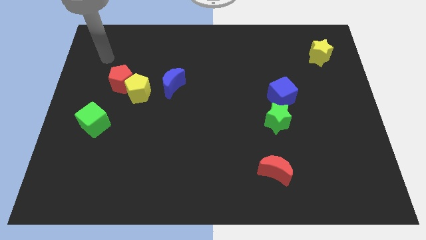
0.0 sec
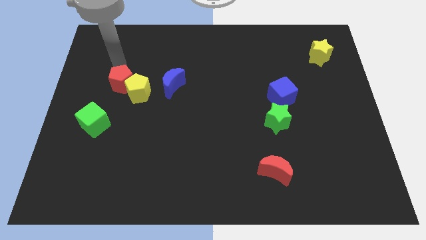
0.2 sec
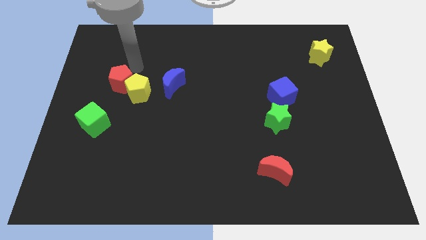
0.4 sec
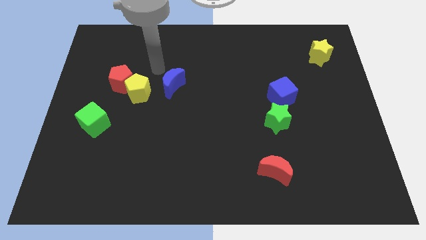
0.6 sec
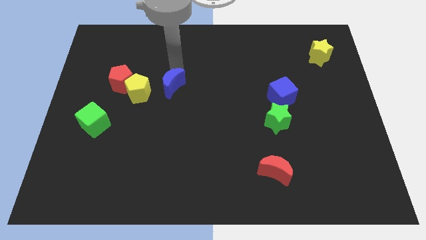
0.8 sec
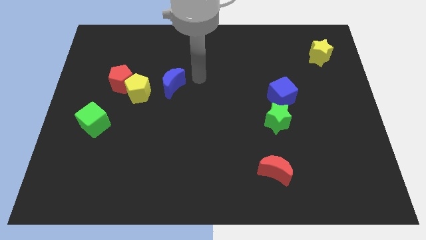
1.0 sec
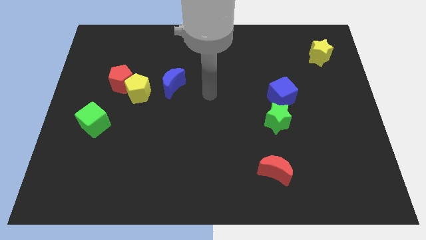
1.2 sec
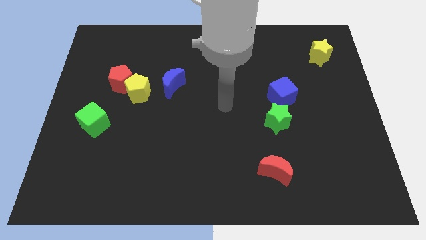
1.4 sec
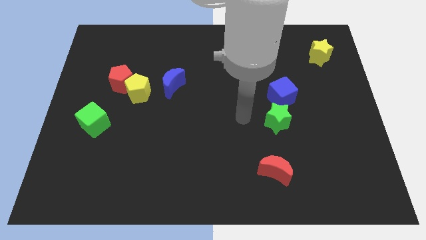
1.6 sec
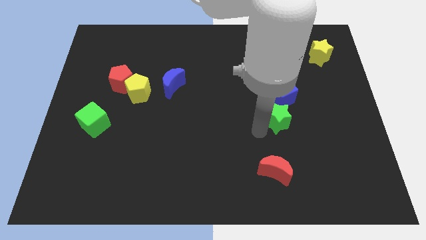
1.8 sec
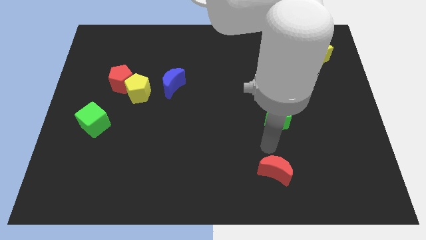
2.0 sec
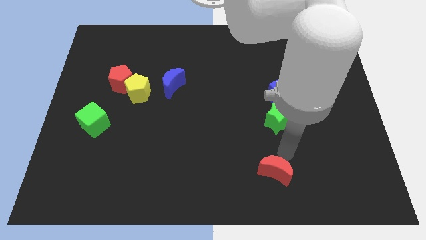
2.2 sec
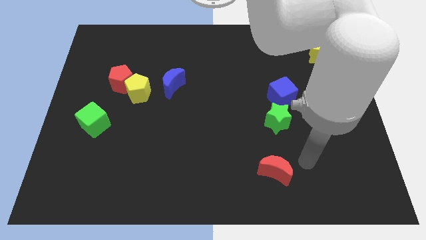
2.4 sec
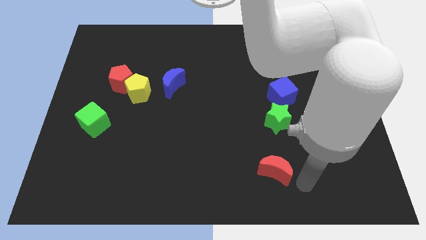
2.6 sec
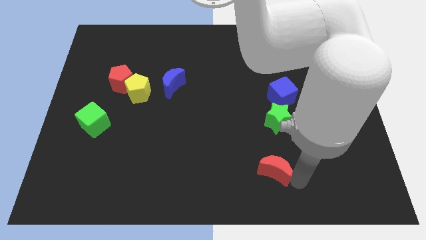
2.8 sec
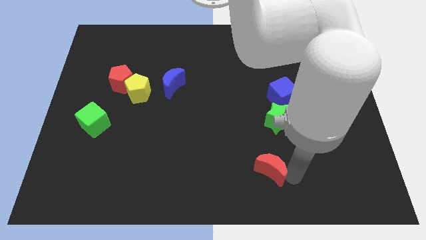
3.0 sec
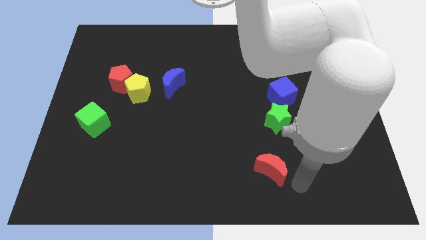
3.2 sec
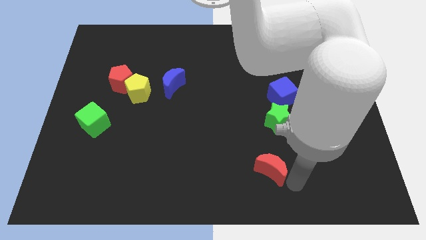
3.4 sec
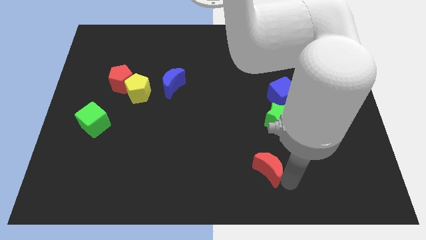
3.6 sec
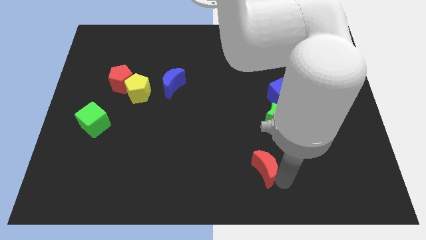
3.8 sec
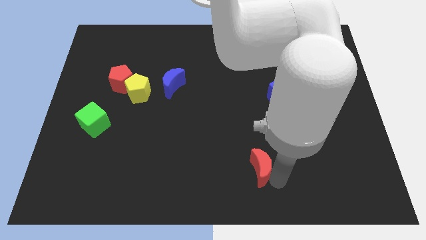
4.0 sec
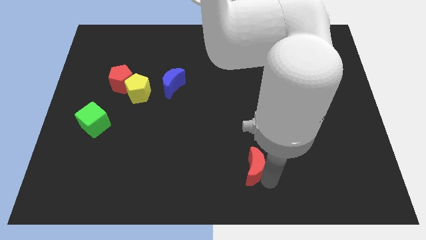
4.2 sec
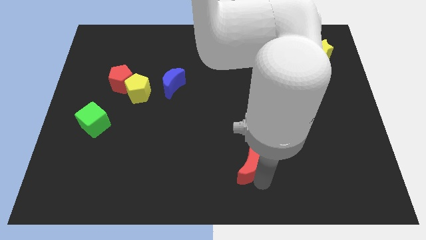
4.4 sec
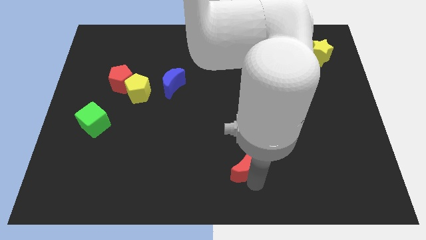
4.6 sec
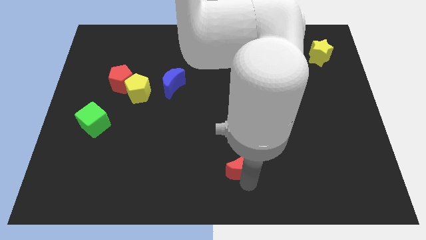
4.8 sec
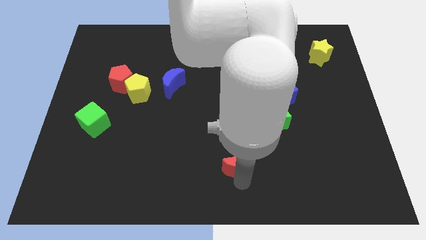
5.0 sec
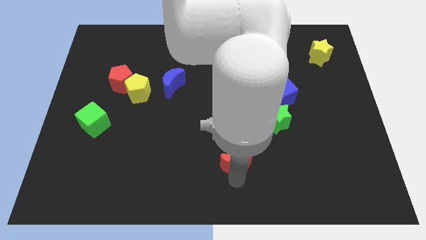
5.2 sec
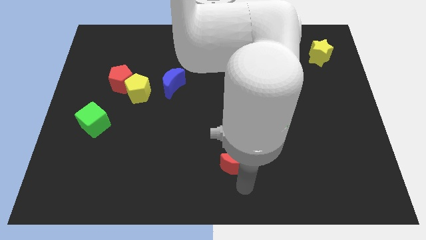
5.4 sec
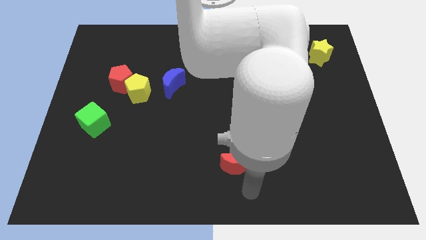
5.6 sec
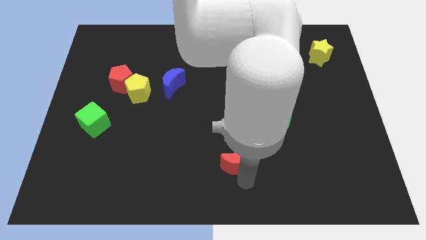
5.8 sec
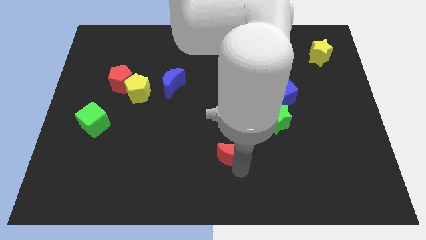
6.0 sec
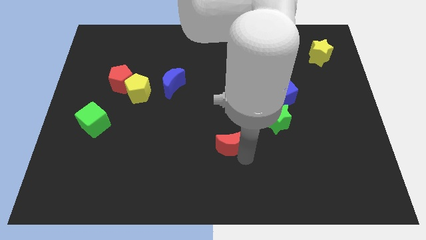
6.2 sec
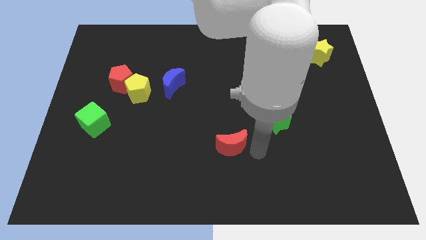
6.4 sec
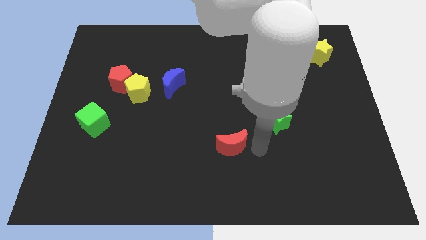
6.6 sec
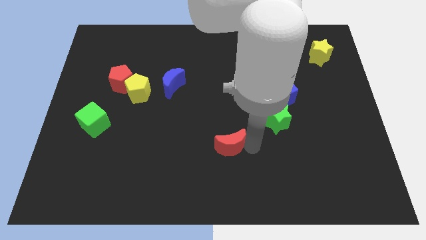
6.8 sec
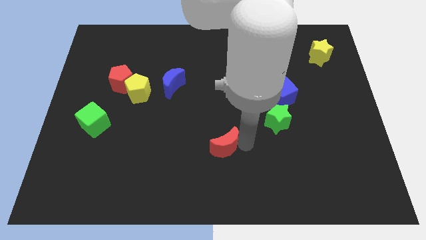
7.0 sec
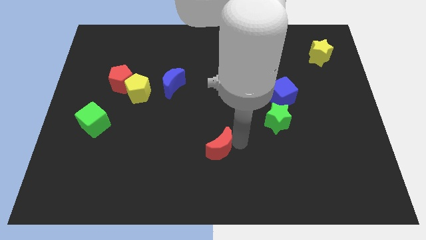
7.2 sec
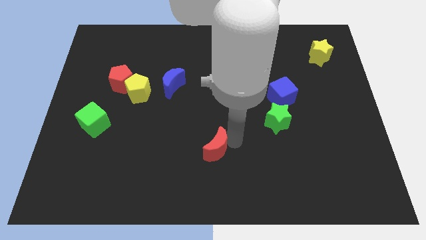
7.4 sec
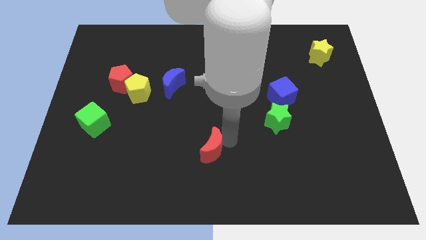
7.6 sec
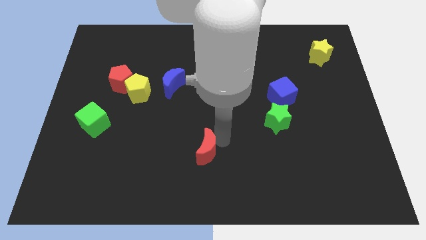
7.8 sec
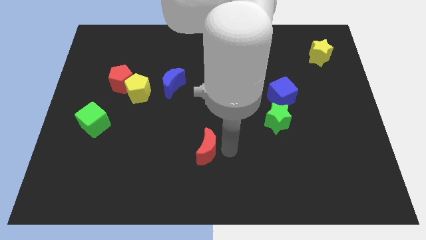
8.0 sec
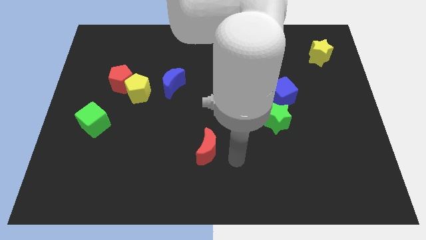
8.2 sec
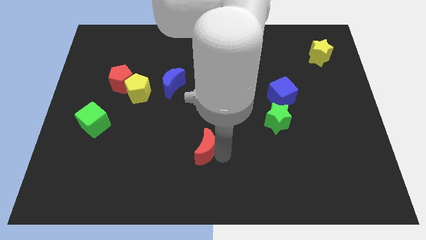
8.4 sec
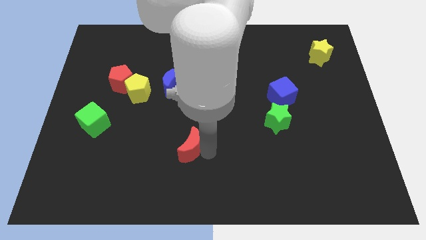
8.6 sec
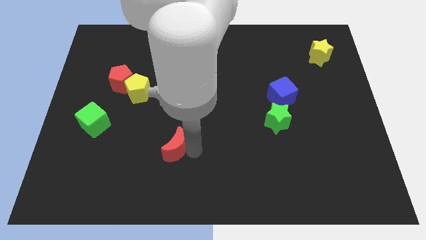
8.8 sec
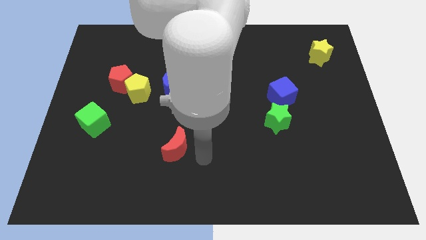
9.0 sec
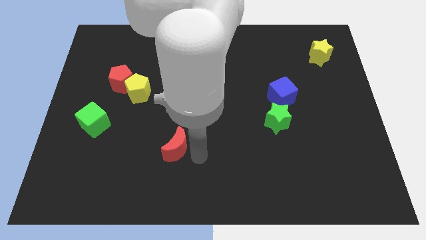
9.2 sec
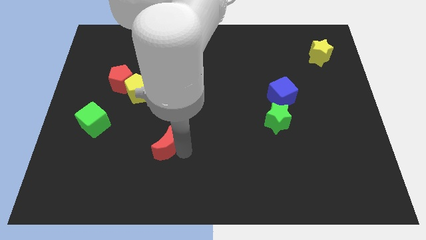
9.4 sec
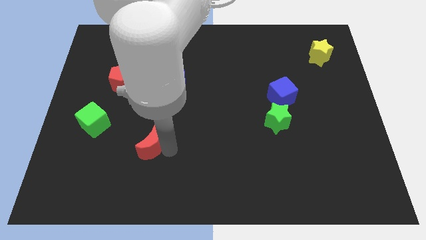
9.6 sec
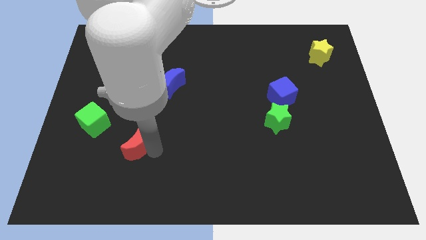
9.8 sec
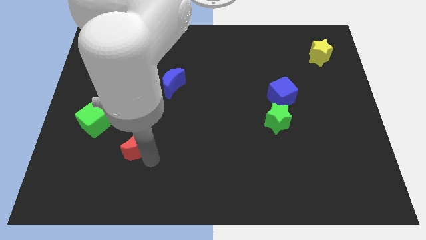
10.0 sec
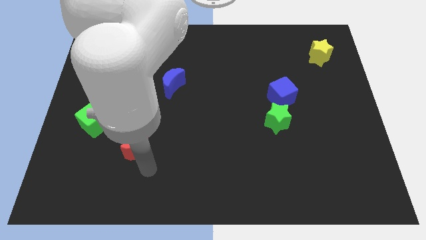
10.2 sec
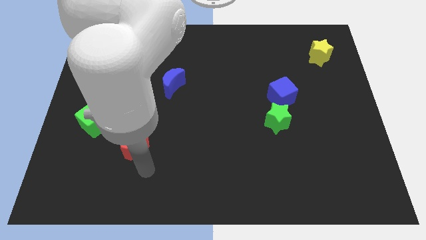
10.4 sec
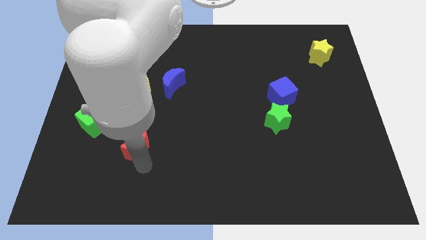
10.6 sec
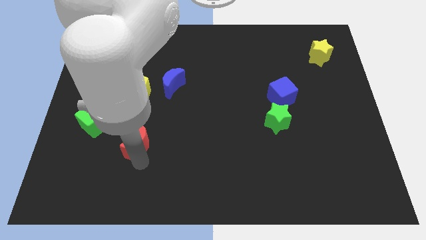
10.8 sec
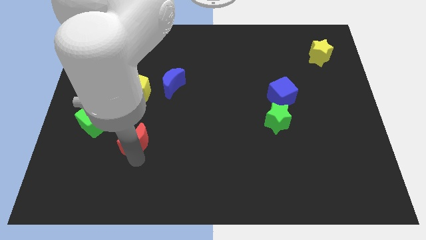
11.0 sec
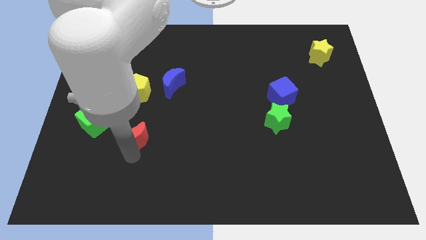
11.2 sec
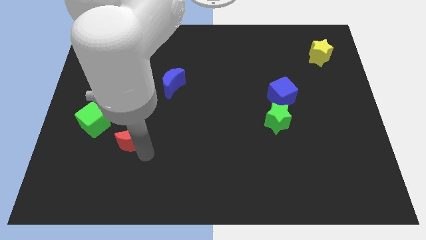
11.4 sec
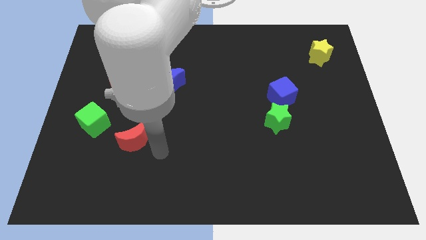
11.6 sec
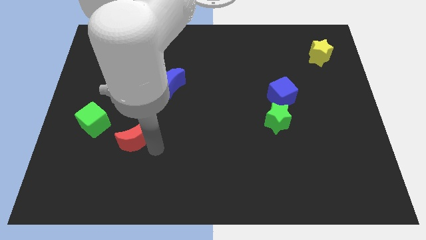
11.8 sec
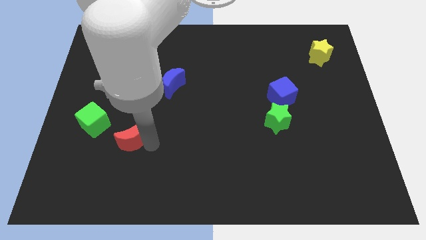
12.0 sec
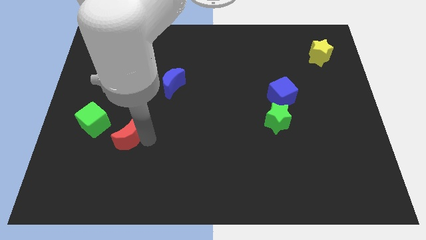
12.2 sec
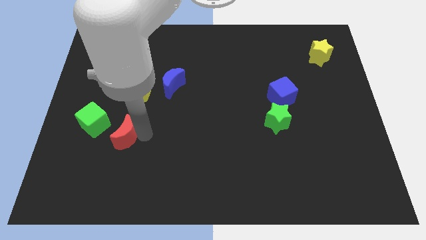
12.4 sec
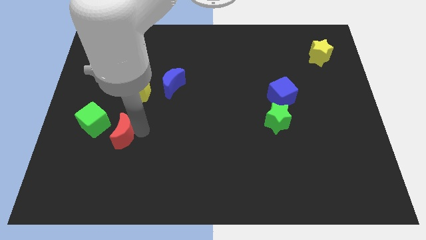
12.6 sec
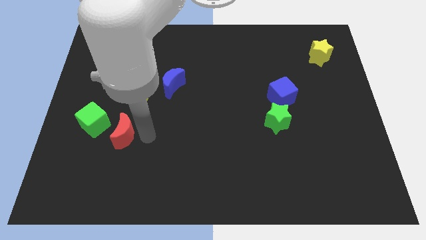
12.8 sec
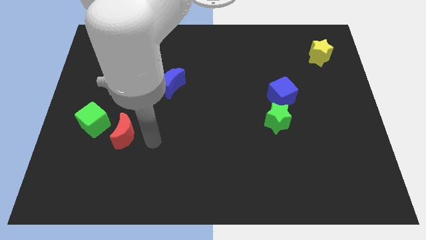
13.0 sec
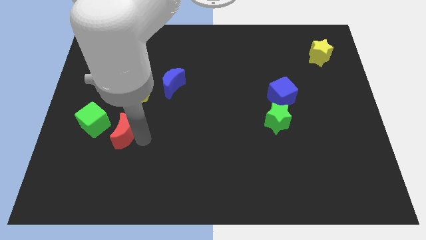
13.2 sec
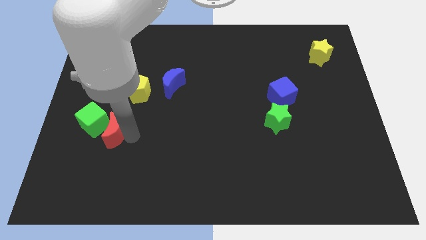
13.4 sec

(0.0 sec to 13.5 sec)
push the red moon next to the green cube

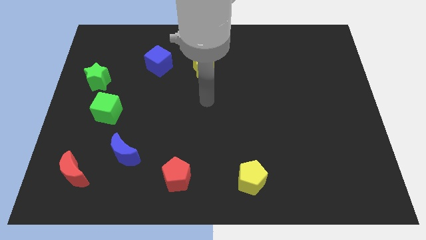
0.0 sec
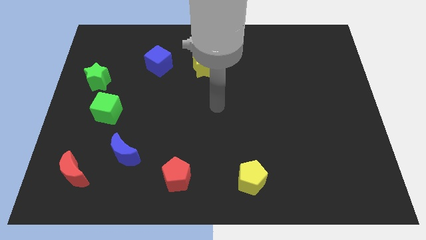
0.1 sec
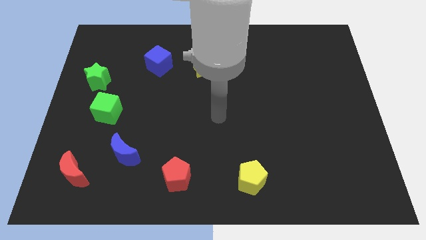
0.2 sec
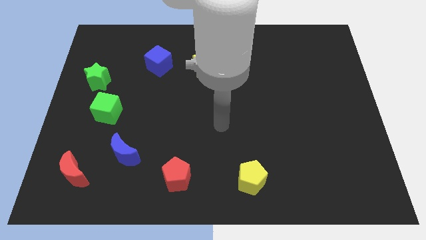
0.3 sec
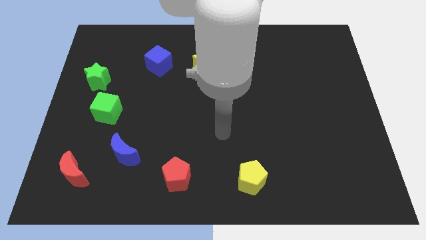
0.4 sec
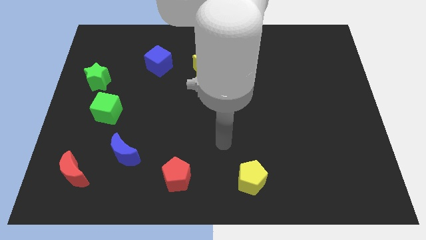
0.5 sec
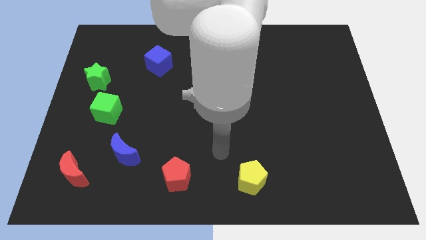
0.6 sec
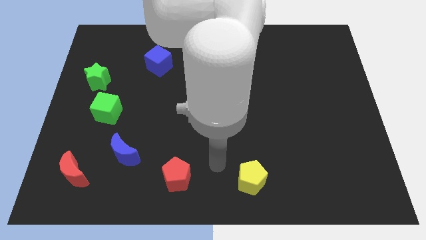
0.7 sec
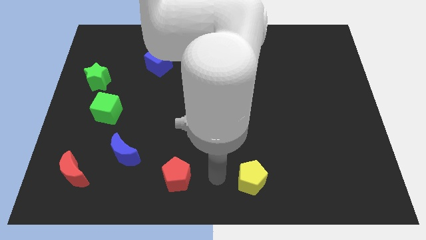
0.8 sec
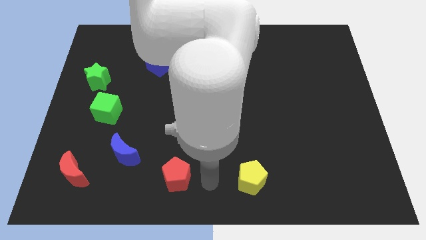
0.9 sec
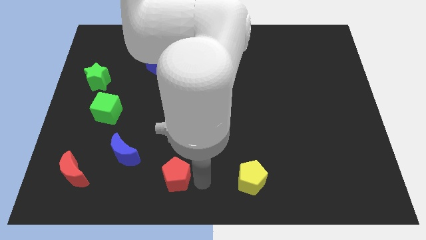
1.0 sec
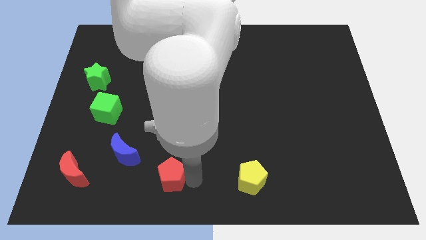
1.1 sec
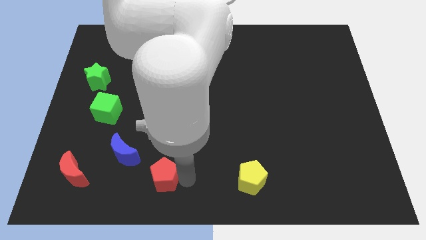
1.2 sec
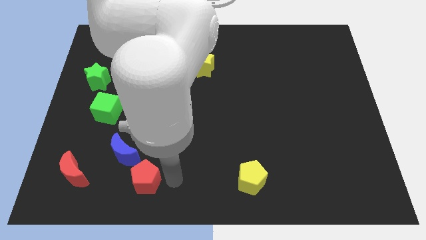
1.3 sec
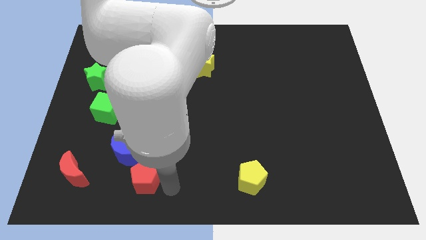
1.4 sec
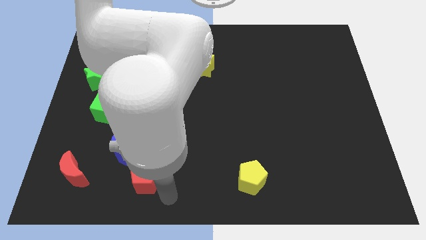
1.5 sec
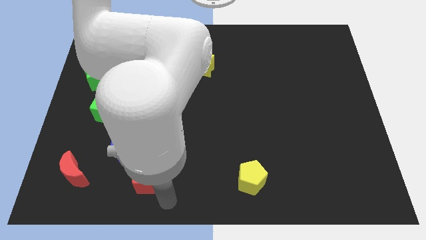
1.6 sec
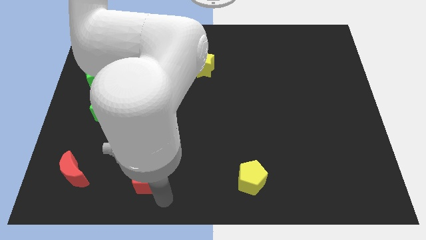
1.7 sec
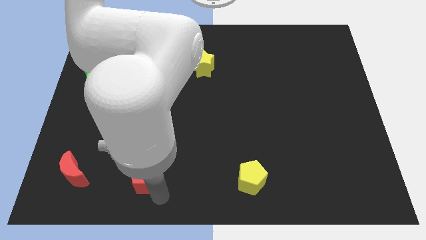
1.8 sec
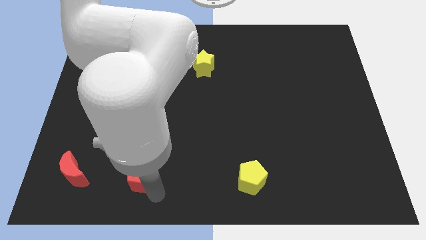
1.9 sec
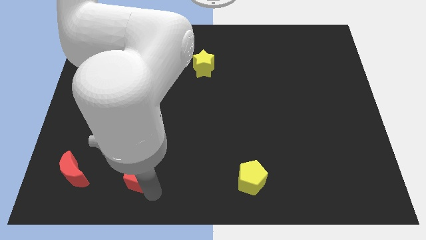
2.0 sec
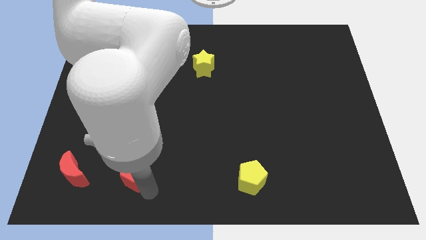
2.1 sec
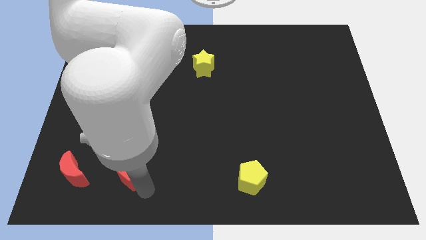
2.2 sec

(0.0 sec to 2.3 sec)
push the red pentagon to the blue moon
